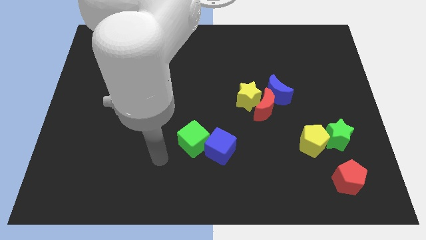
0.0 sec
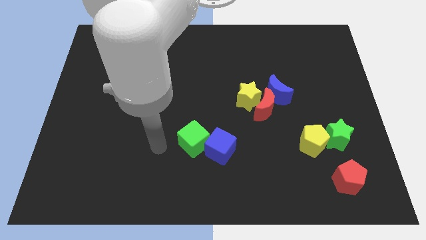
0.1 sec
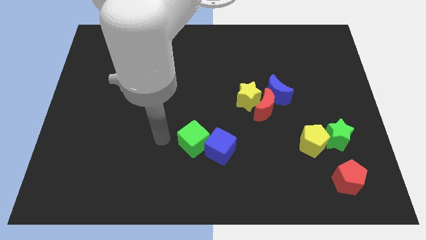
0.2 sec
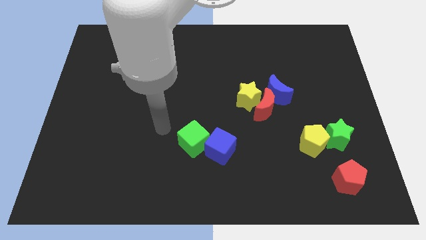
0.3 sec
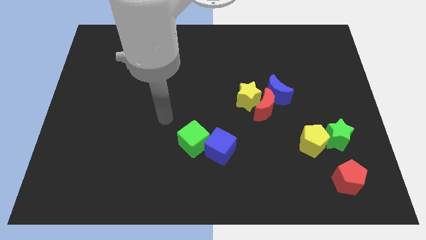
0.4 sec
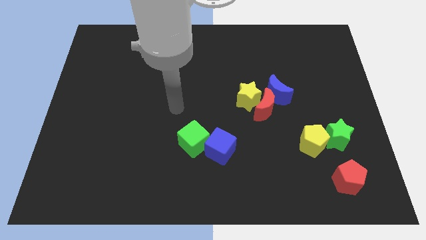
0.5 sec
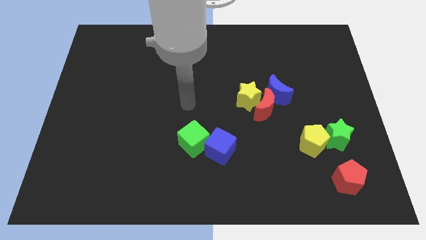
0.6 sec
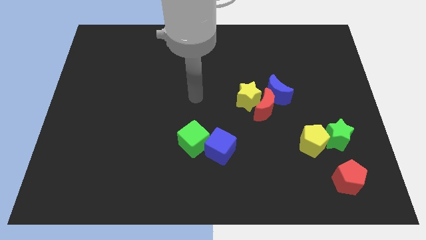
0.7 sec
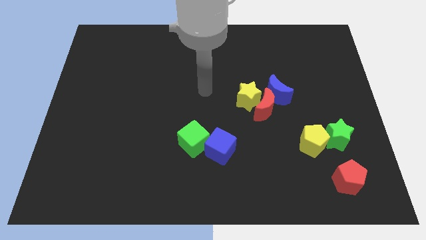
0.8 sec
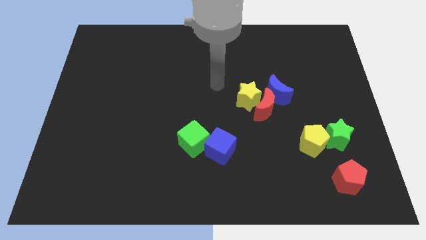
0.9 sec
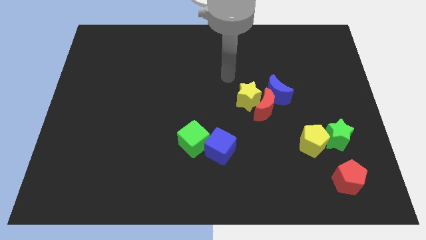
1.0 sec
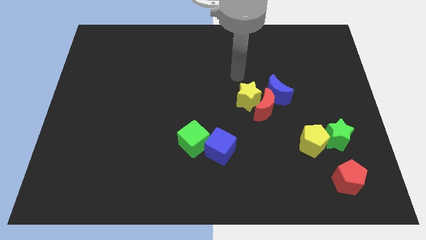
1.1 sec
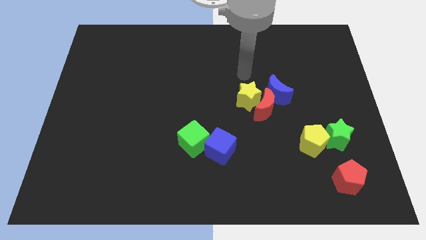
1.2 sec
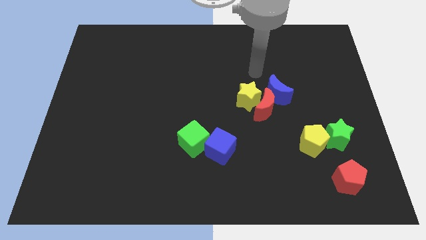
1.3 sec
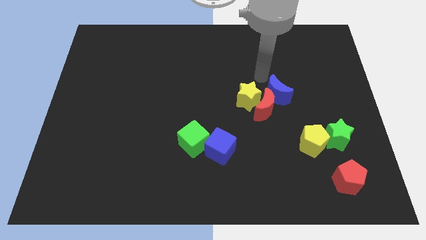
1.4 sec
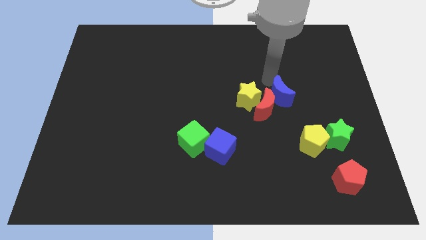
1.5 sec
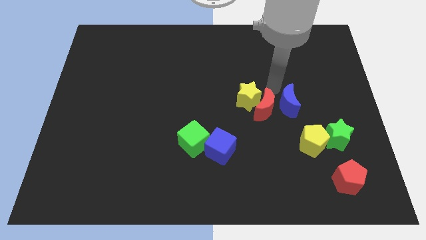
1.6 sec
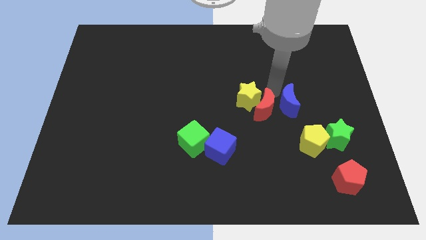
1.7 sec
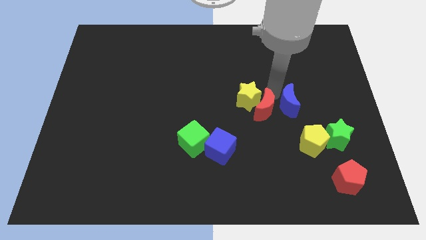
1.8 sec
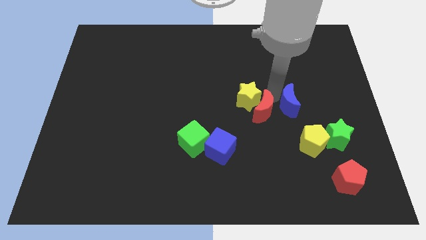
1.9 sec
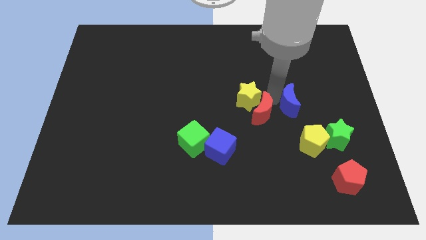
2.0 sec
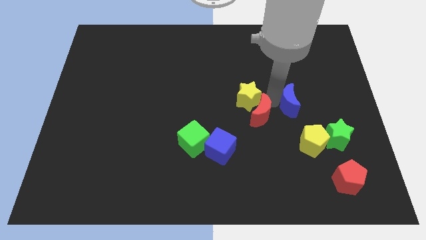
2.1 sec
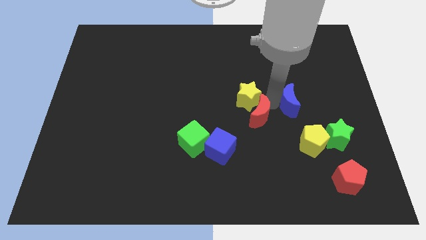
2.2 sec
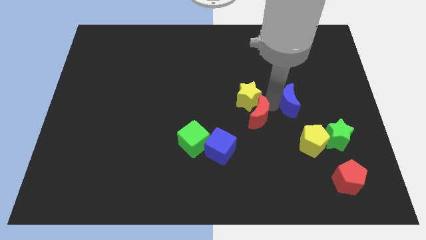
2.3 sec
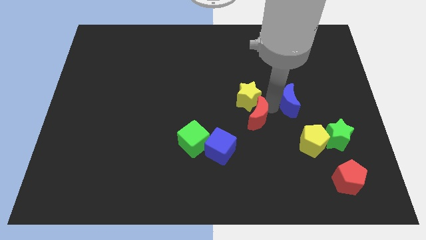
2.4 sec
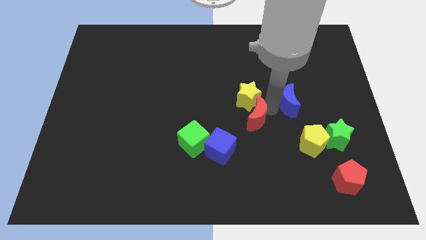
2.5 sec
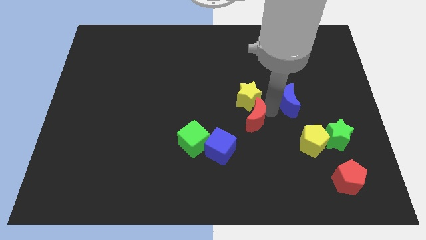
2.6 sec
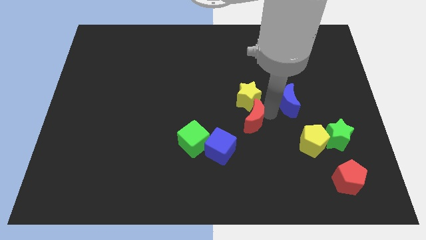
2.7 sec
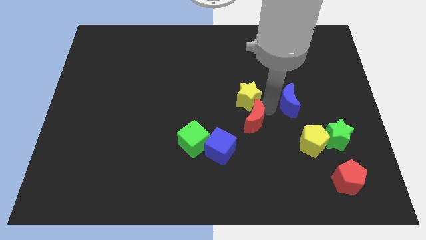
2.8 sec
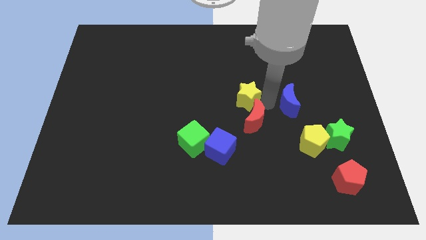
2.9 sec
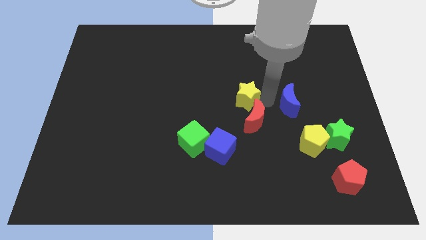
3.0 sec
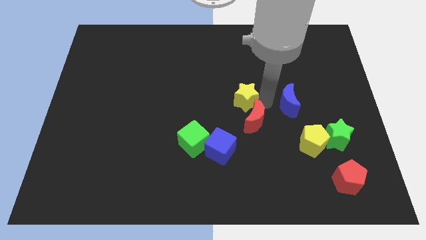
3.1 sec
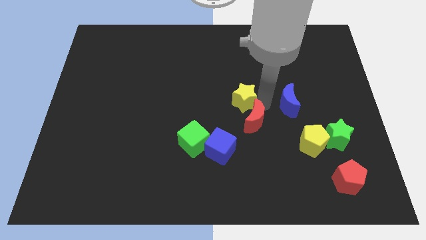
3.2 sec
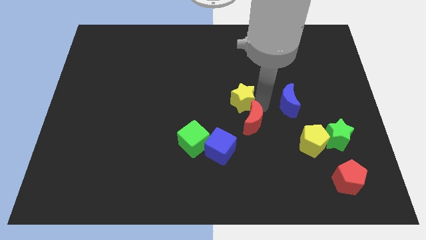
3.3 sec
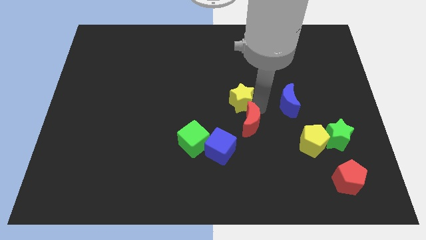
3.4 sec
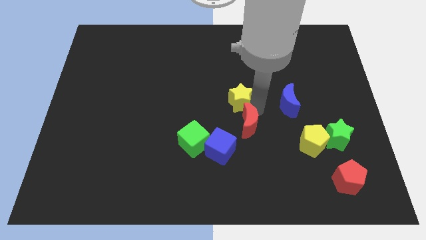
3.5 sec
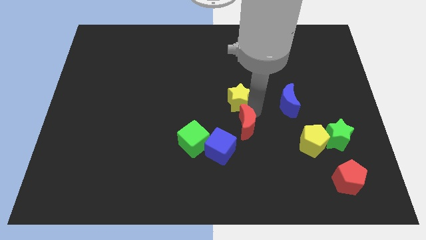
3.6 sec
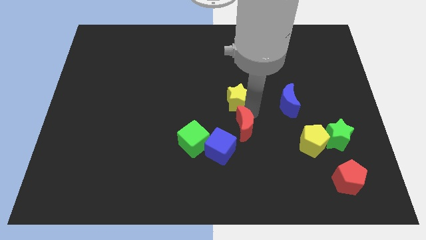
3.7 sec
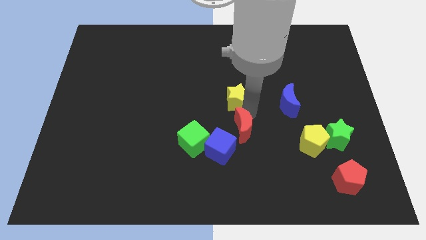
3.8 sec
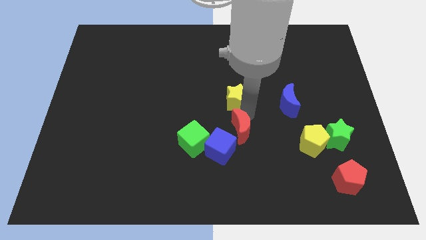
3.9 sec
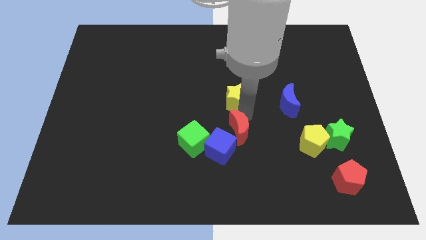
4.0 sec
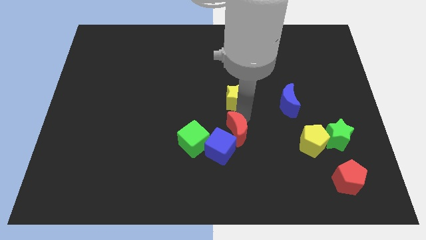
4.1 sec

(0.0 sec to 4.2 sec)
separate the red moon from the yellow star and blue moon

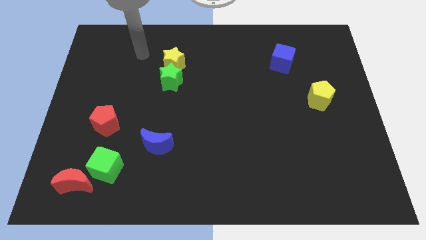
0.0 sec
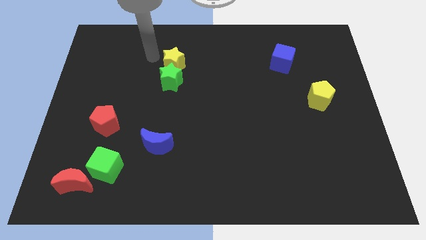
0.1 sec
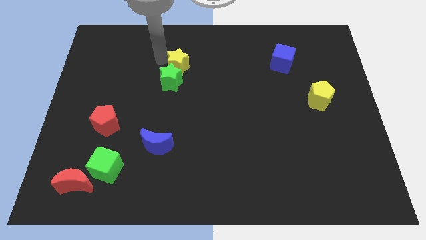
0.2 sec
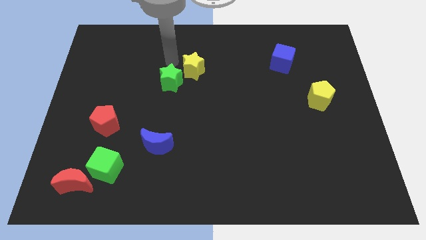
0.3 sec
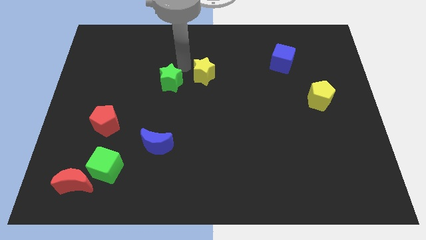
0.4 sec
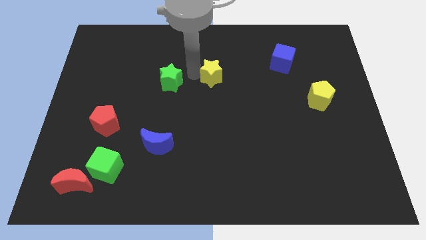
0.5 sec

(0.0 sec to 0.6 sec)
separate the green star from the yellow star

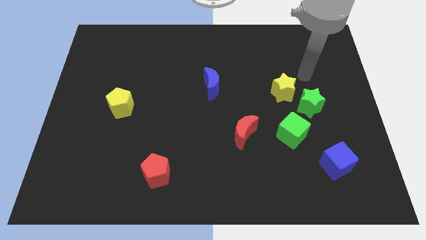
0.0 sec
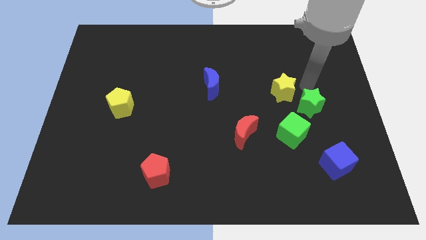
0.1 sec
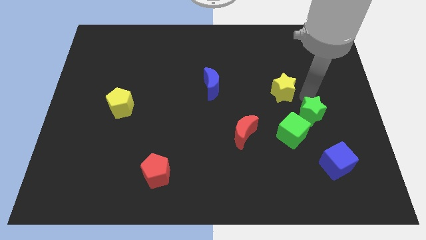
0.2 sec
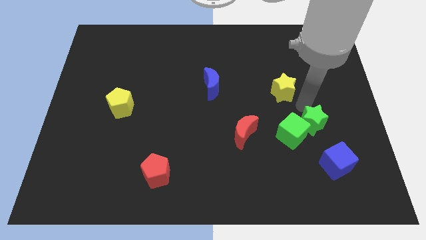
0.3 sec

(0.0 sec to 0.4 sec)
move the yellow star away from the green star

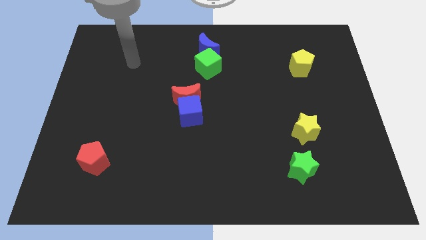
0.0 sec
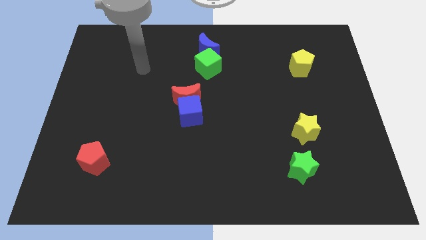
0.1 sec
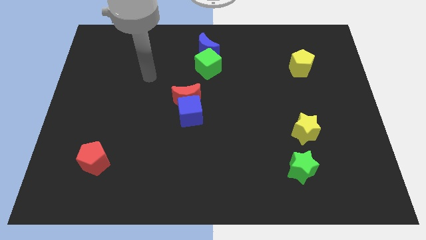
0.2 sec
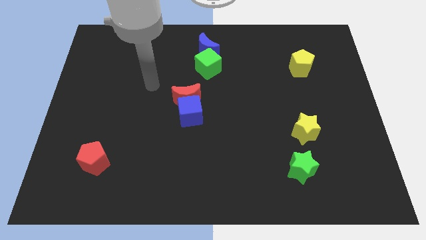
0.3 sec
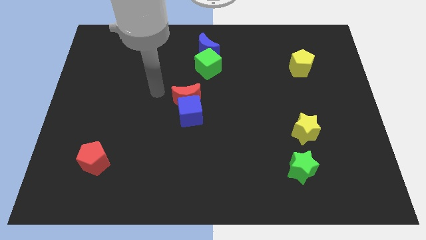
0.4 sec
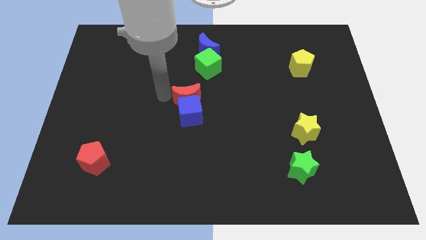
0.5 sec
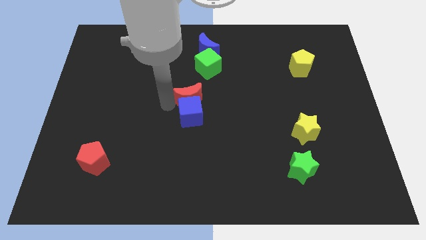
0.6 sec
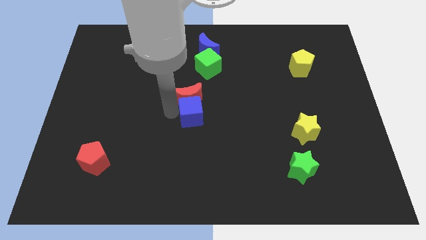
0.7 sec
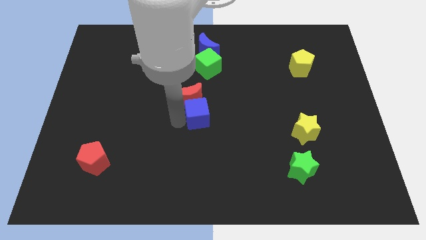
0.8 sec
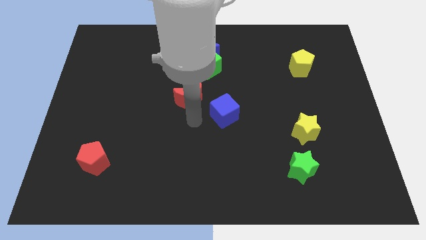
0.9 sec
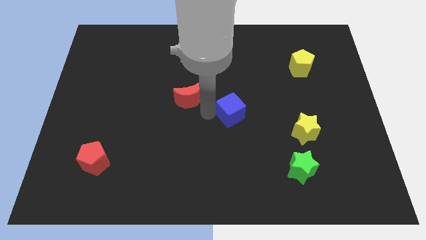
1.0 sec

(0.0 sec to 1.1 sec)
pull the red moon apart from the blue cube

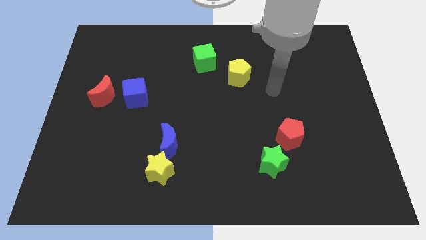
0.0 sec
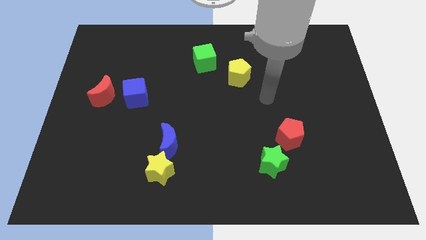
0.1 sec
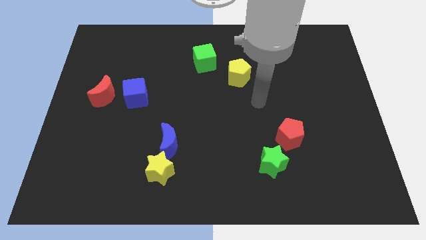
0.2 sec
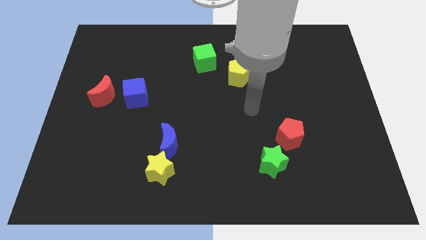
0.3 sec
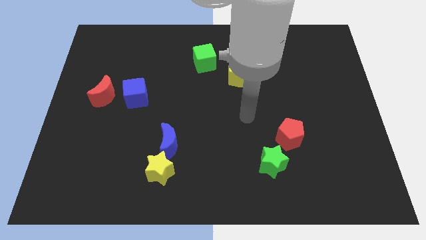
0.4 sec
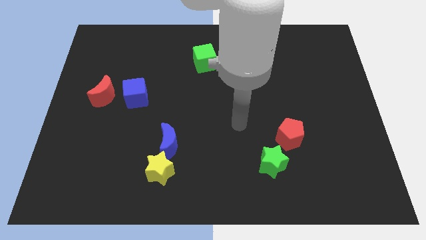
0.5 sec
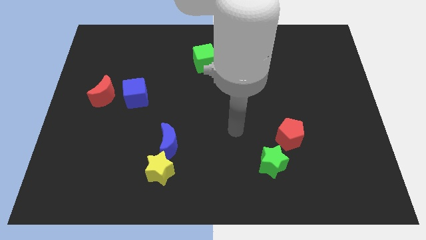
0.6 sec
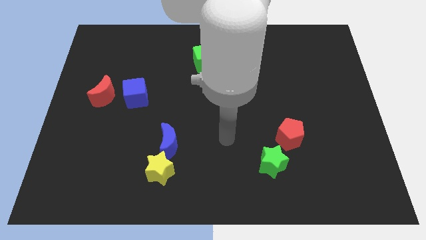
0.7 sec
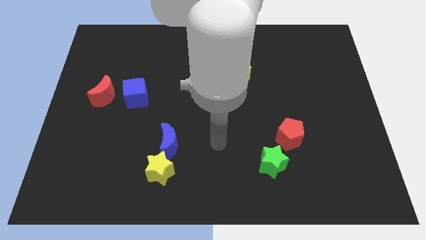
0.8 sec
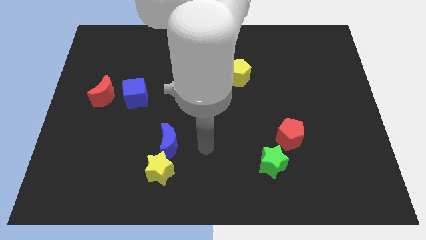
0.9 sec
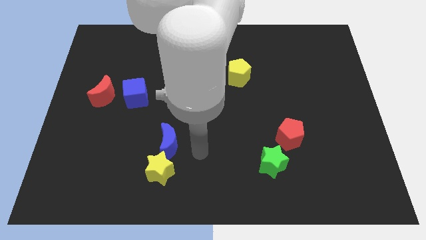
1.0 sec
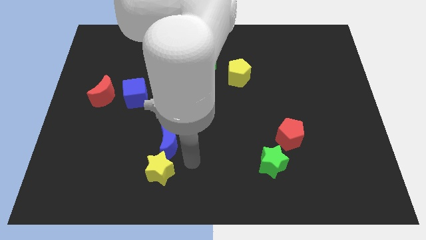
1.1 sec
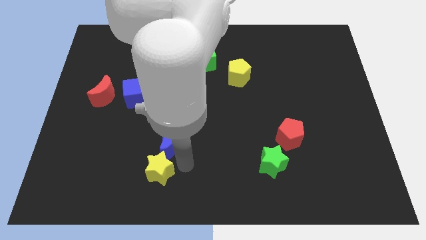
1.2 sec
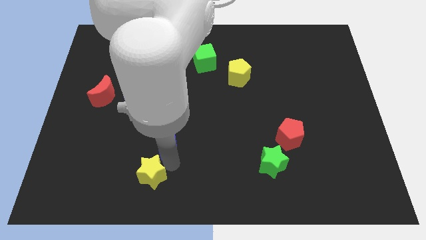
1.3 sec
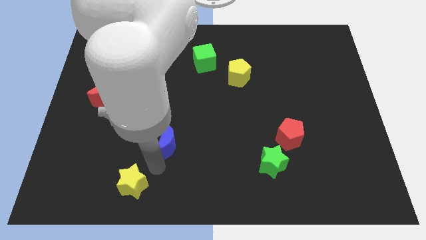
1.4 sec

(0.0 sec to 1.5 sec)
pull the blue moon apart from the yellow star

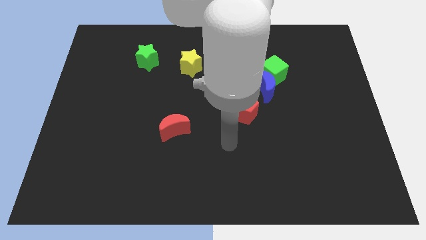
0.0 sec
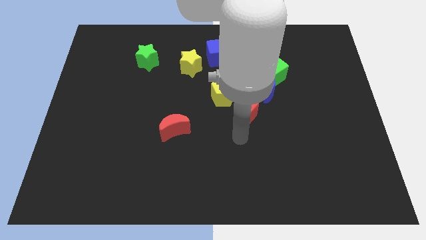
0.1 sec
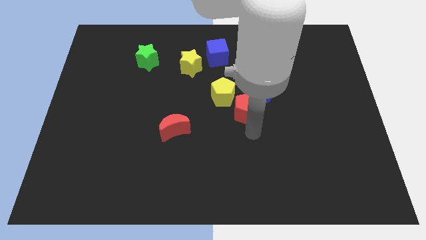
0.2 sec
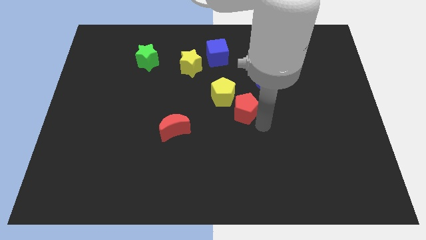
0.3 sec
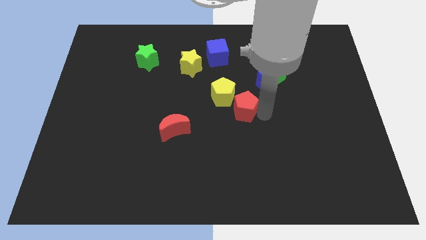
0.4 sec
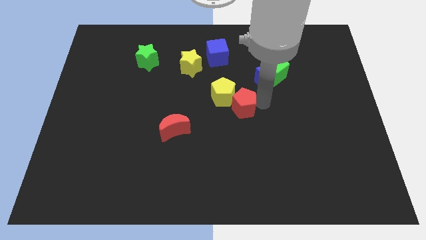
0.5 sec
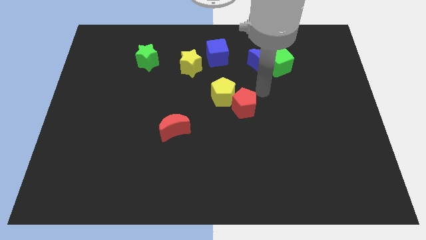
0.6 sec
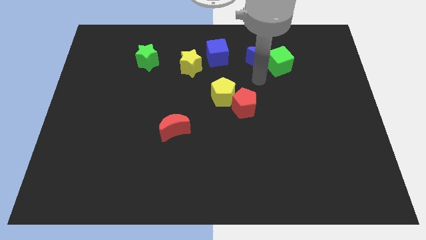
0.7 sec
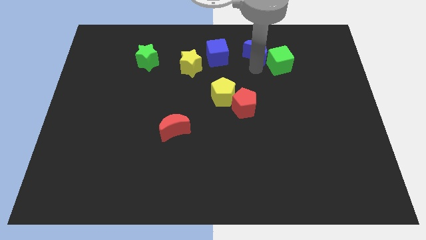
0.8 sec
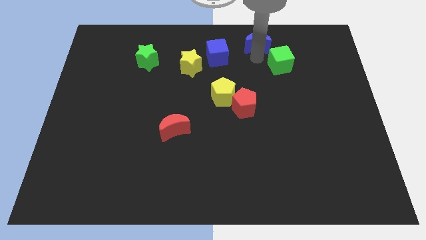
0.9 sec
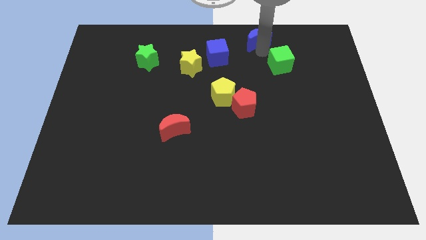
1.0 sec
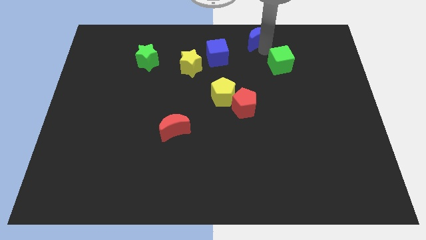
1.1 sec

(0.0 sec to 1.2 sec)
move the green cube away from the blue moon

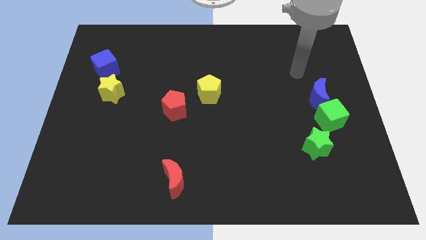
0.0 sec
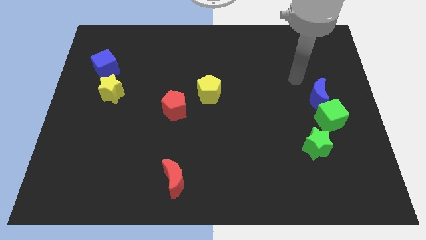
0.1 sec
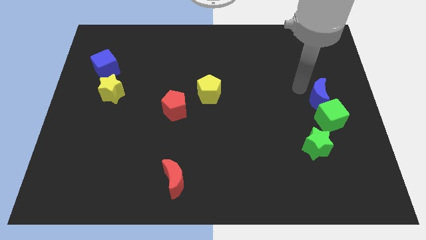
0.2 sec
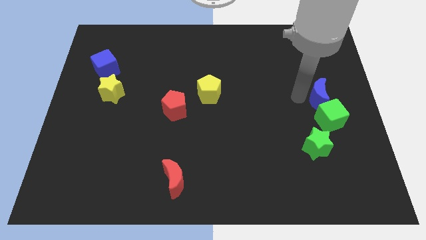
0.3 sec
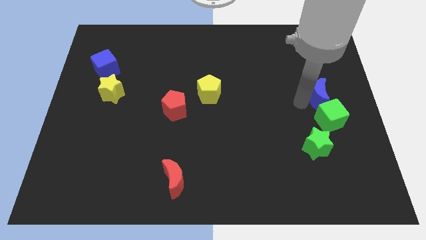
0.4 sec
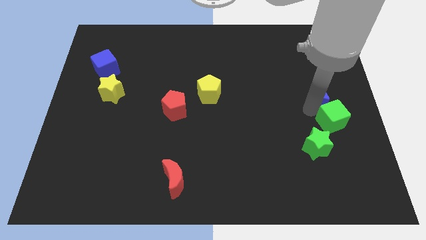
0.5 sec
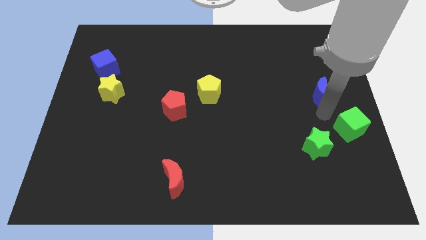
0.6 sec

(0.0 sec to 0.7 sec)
move the blue moon away from the green cube
